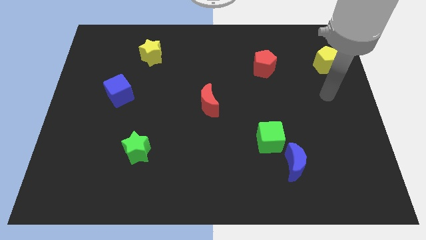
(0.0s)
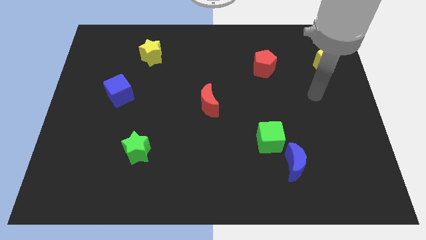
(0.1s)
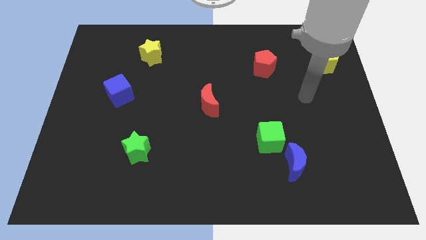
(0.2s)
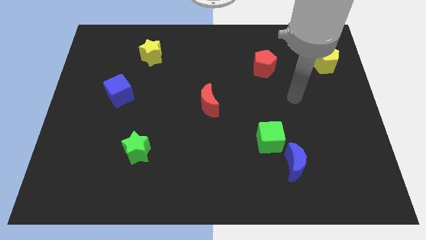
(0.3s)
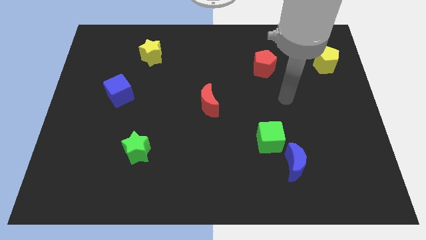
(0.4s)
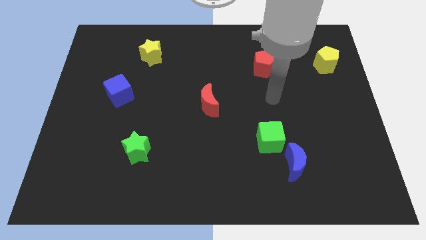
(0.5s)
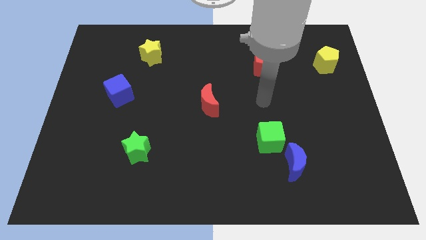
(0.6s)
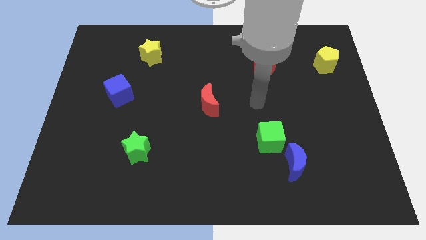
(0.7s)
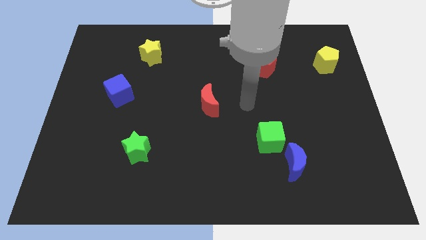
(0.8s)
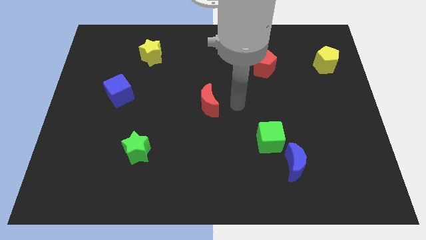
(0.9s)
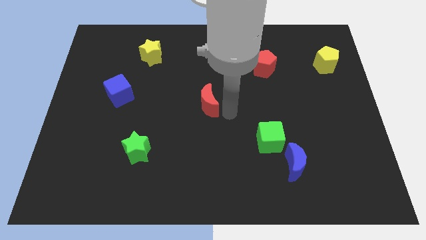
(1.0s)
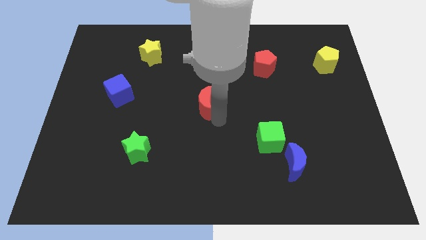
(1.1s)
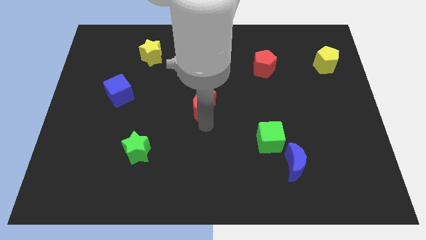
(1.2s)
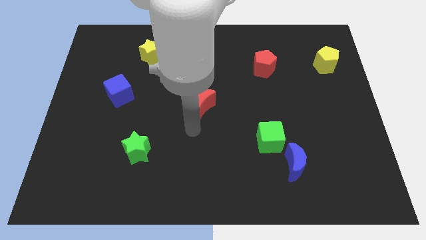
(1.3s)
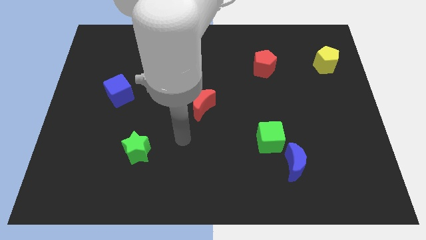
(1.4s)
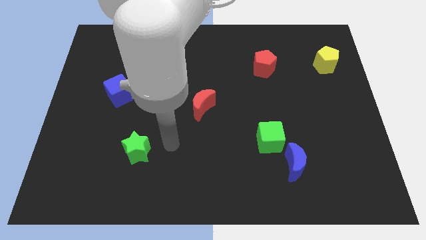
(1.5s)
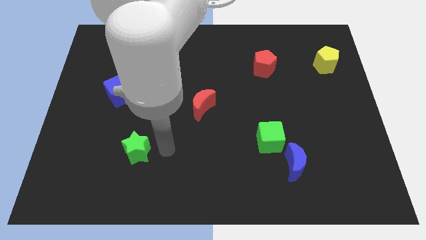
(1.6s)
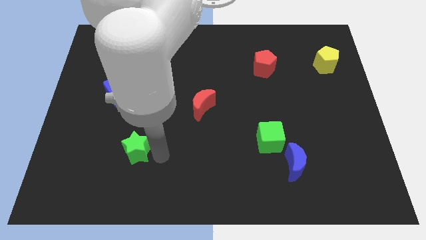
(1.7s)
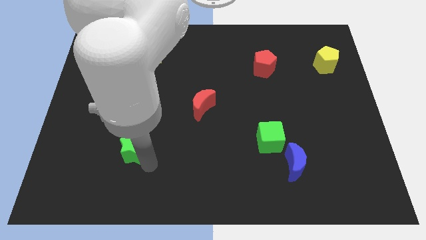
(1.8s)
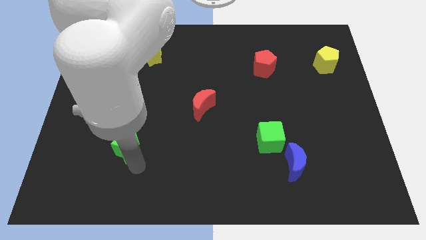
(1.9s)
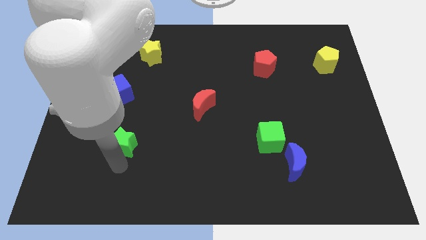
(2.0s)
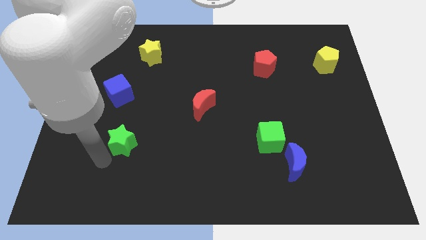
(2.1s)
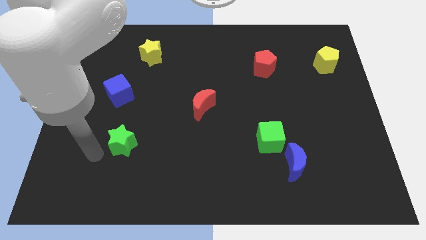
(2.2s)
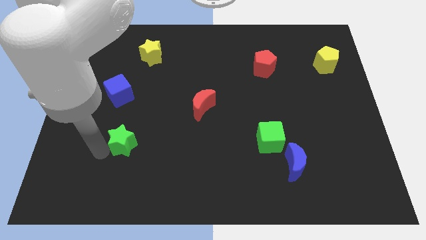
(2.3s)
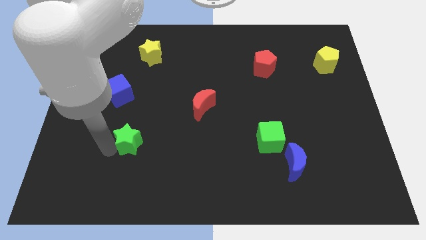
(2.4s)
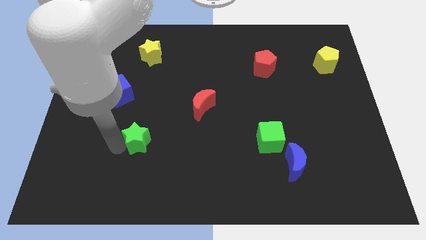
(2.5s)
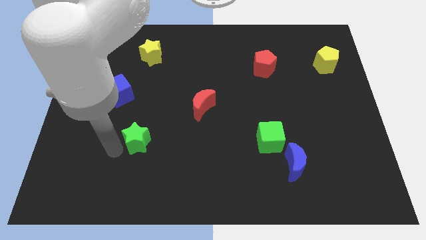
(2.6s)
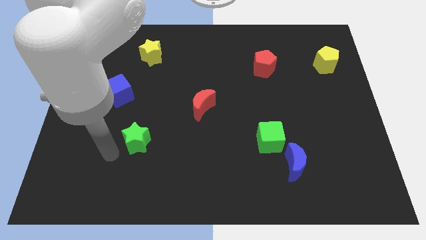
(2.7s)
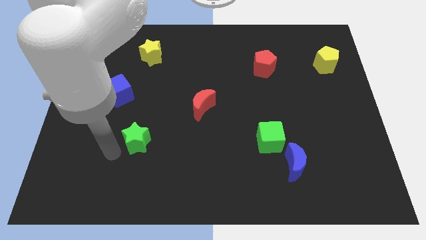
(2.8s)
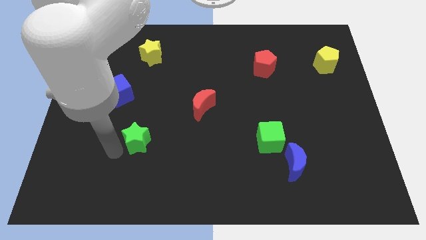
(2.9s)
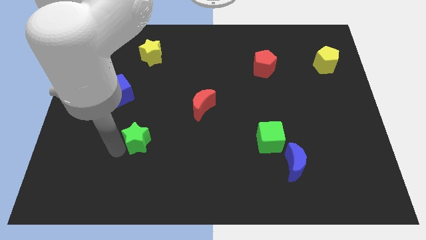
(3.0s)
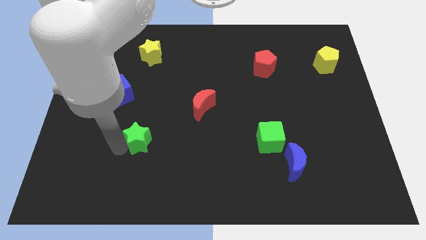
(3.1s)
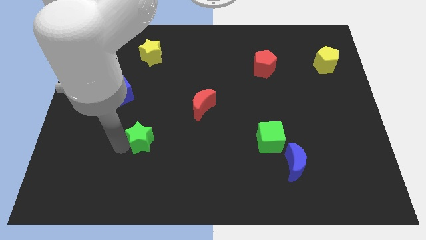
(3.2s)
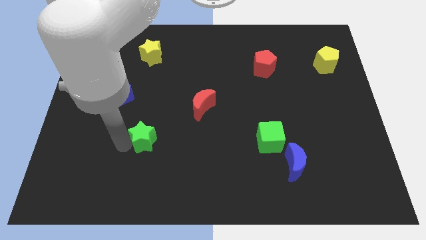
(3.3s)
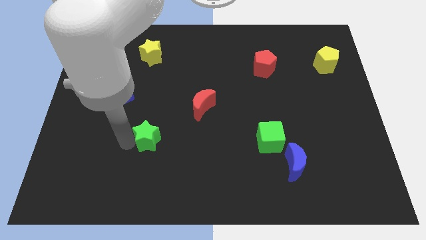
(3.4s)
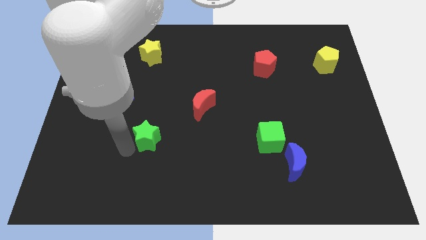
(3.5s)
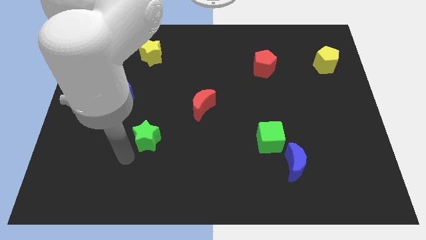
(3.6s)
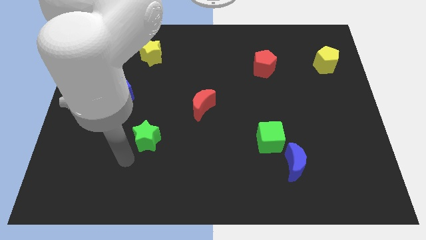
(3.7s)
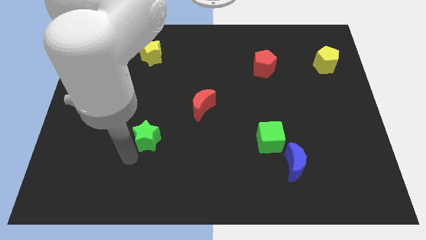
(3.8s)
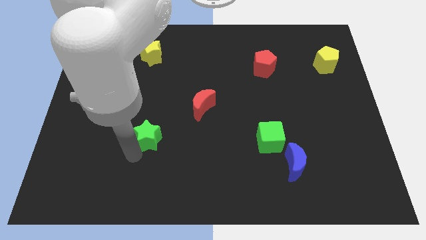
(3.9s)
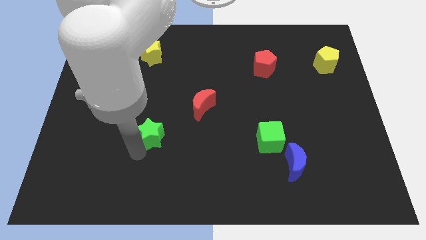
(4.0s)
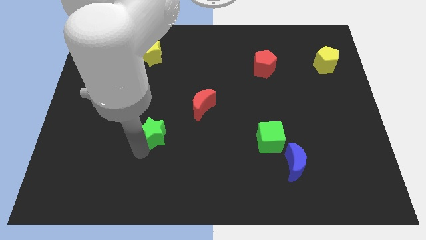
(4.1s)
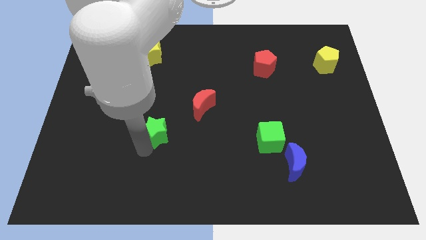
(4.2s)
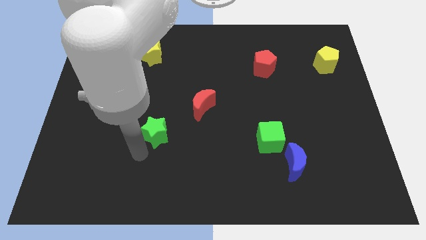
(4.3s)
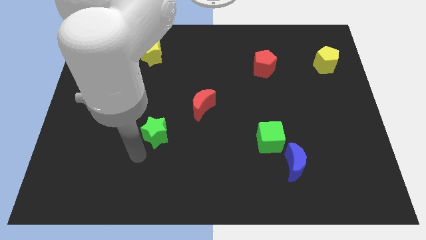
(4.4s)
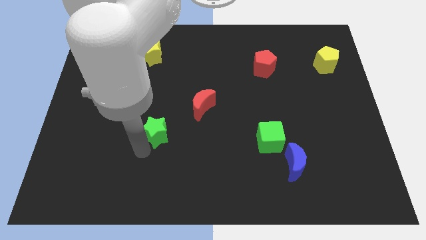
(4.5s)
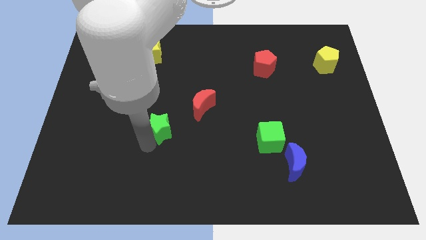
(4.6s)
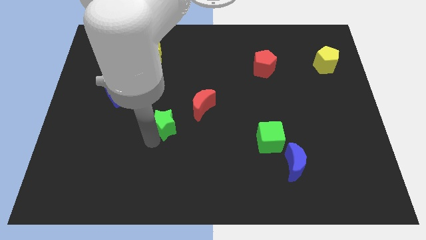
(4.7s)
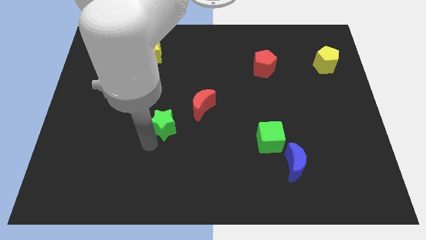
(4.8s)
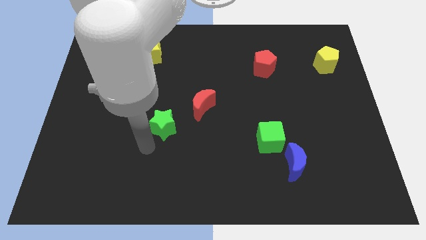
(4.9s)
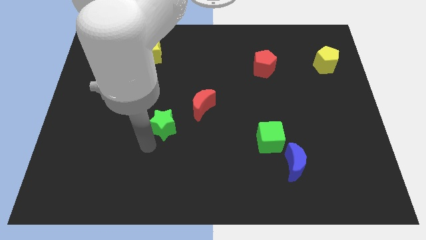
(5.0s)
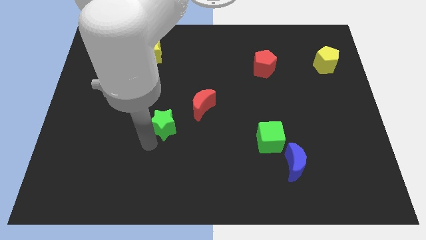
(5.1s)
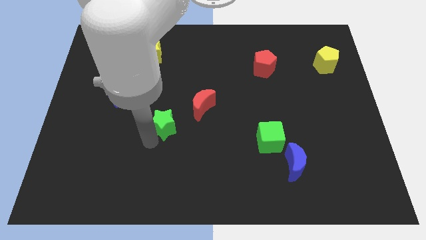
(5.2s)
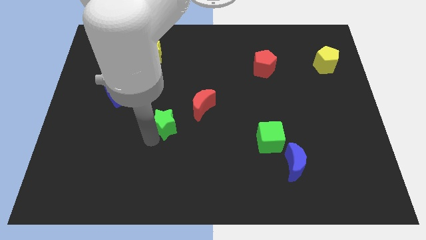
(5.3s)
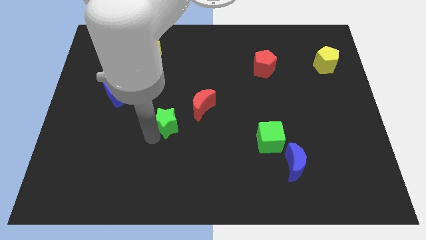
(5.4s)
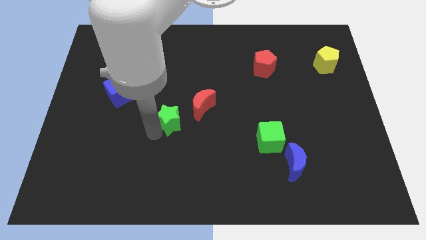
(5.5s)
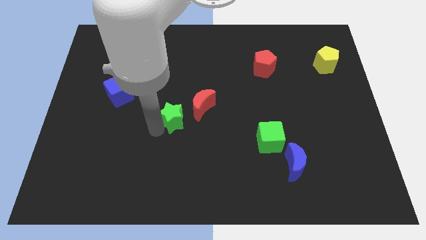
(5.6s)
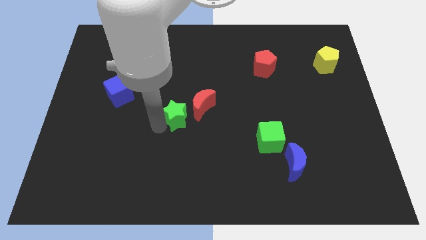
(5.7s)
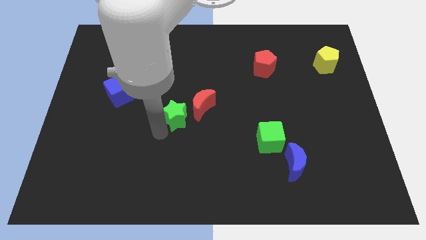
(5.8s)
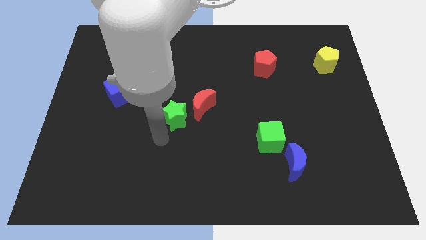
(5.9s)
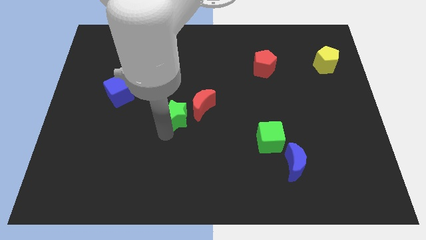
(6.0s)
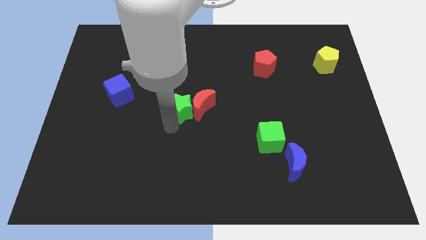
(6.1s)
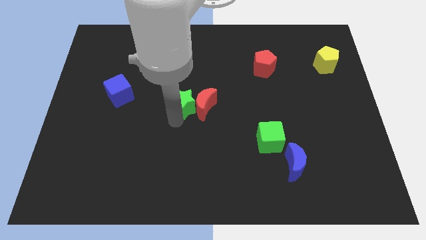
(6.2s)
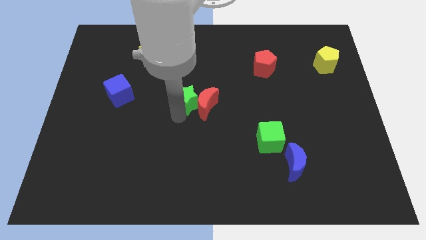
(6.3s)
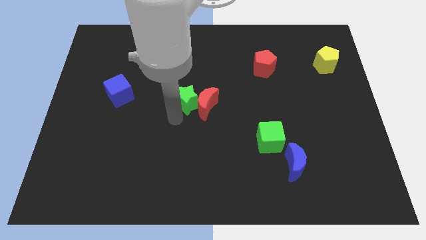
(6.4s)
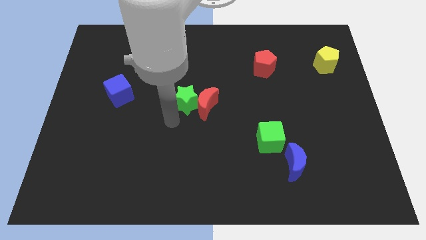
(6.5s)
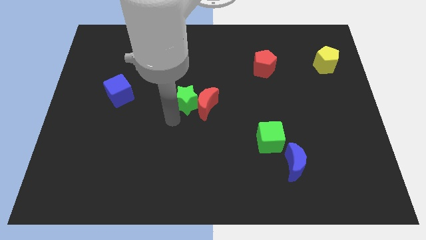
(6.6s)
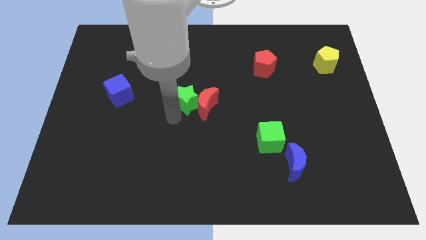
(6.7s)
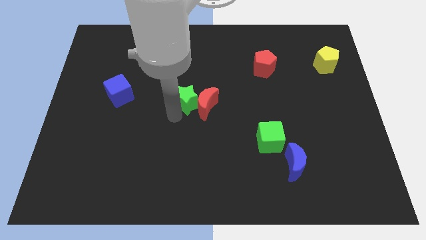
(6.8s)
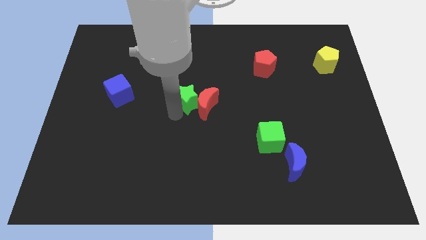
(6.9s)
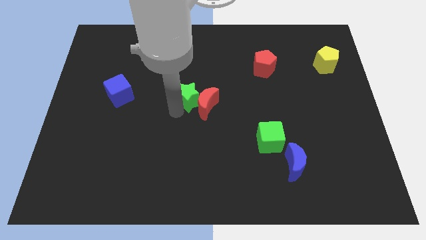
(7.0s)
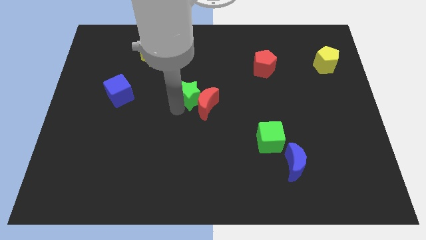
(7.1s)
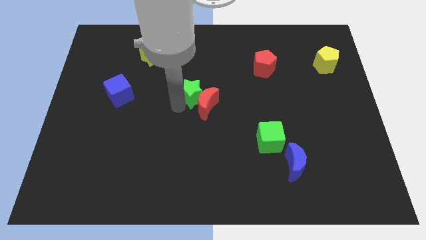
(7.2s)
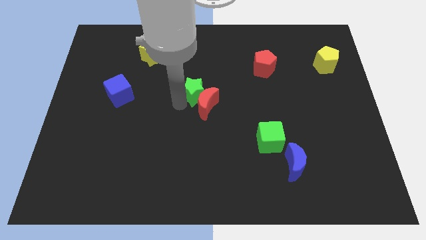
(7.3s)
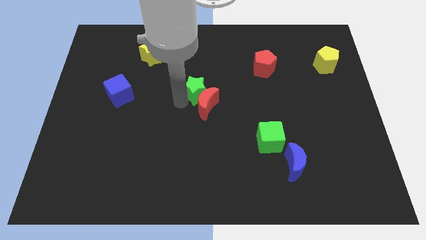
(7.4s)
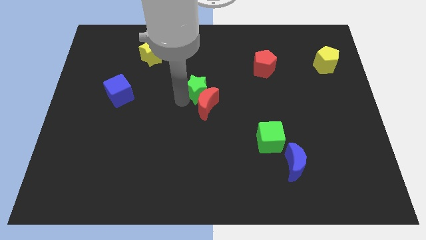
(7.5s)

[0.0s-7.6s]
slide the green star up and right

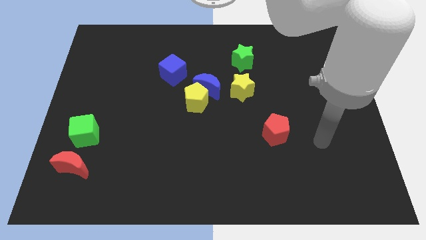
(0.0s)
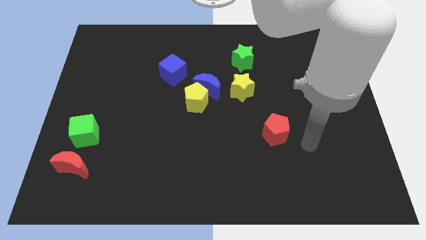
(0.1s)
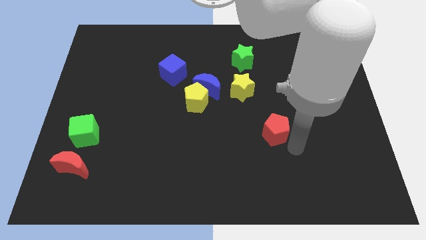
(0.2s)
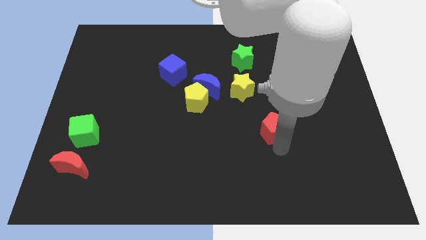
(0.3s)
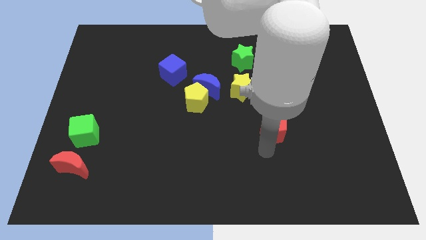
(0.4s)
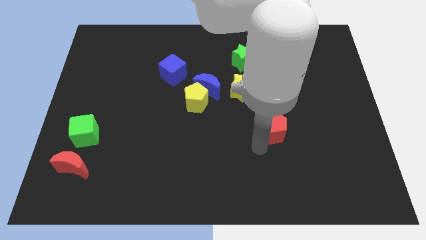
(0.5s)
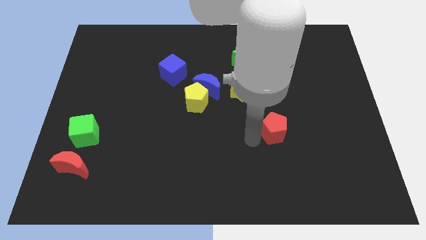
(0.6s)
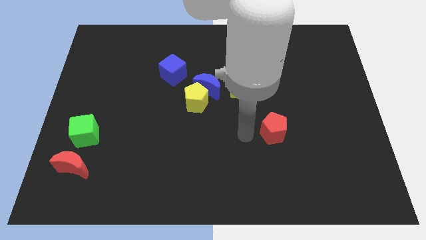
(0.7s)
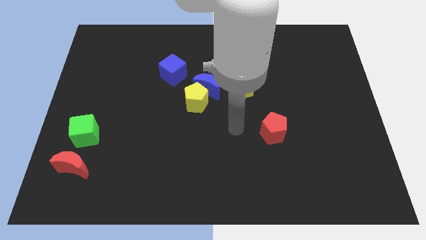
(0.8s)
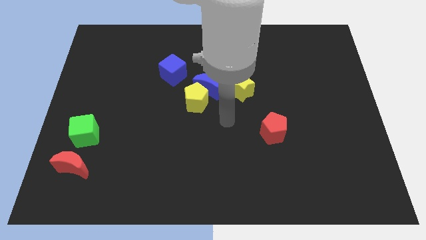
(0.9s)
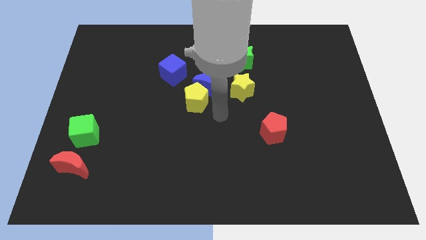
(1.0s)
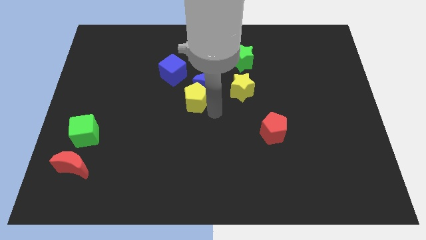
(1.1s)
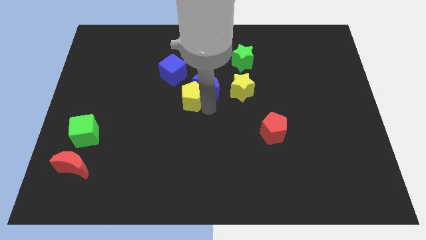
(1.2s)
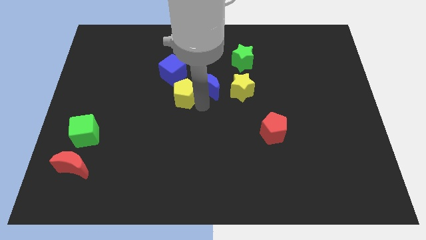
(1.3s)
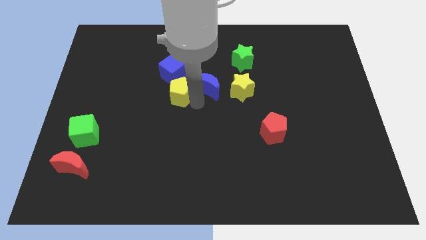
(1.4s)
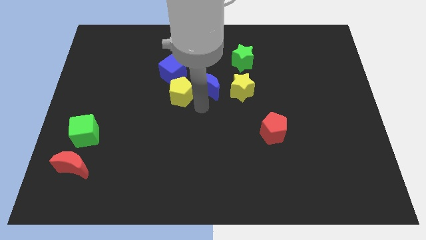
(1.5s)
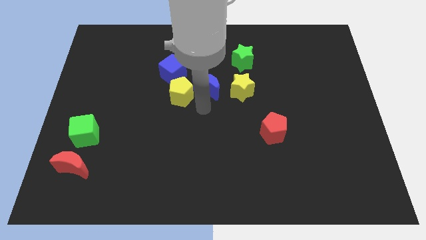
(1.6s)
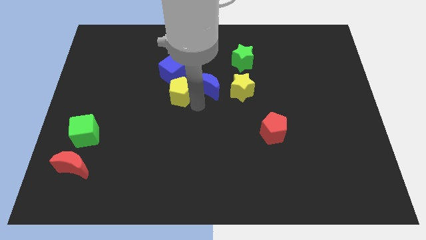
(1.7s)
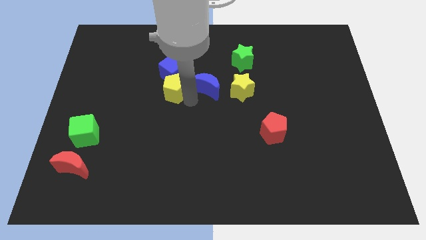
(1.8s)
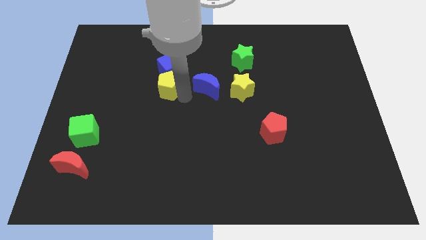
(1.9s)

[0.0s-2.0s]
push the yellow pentagon a little bit up and left
